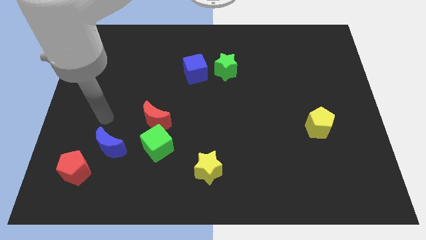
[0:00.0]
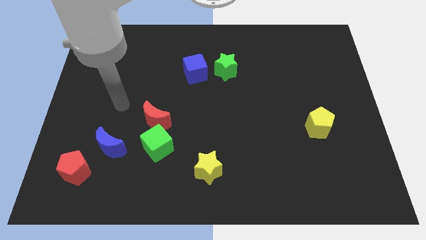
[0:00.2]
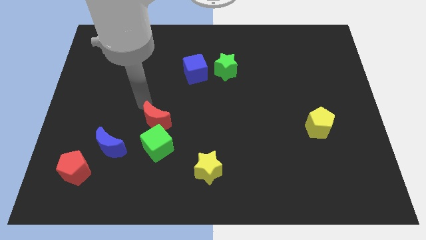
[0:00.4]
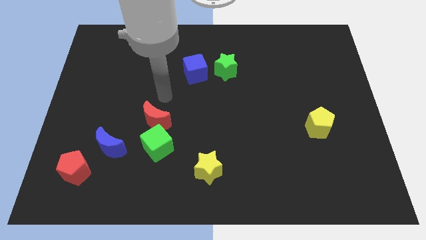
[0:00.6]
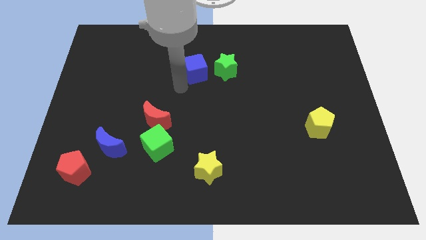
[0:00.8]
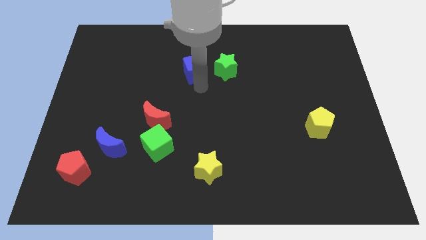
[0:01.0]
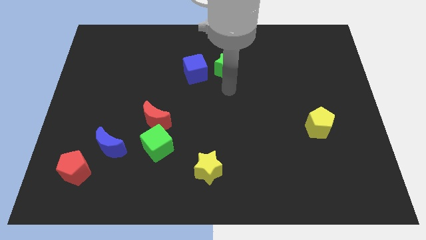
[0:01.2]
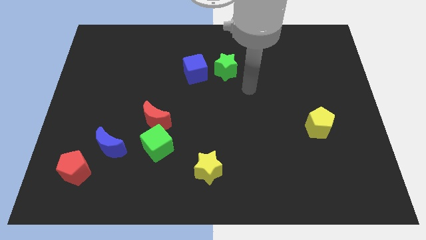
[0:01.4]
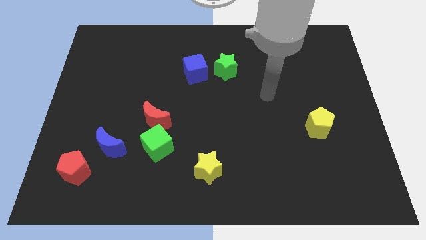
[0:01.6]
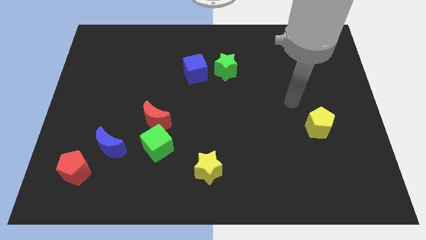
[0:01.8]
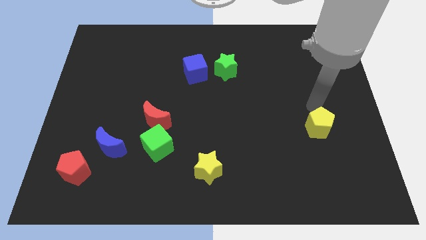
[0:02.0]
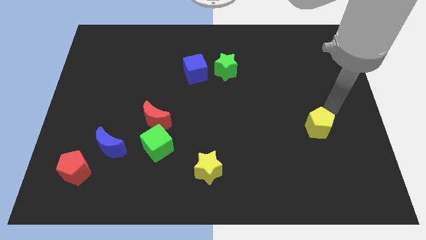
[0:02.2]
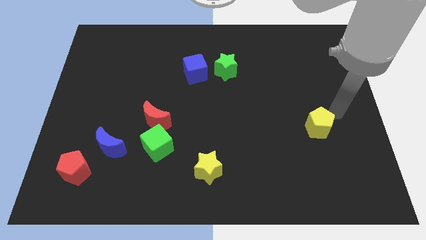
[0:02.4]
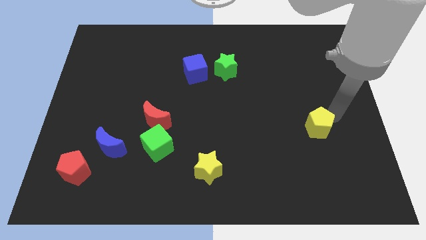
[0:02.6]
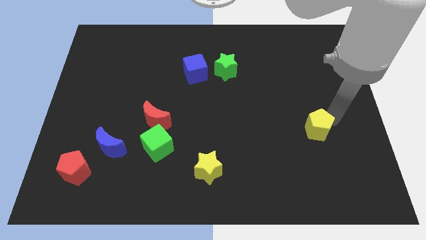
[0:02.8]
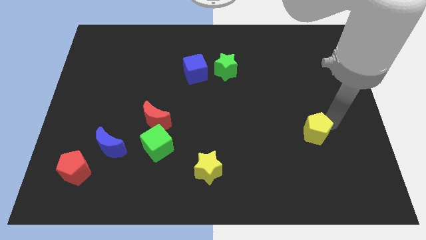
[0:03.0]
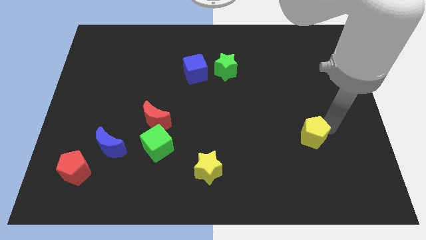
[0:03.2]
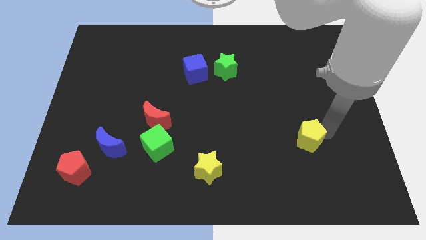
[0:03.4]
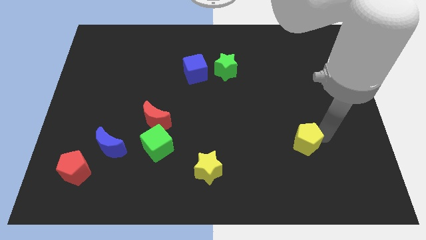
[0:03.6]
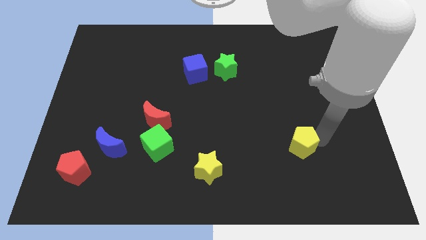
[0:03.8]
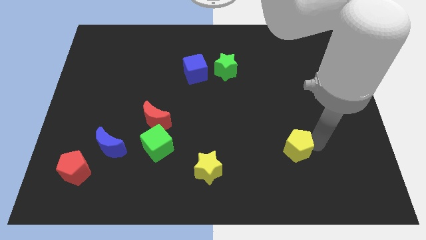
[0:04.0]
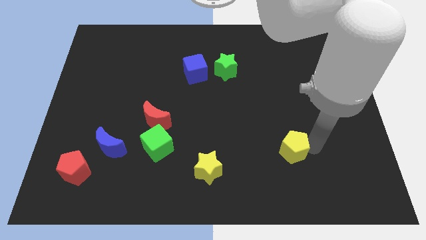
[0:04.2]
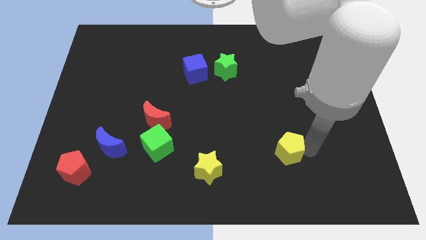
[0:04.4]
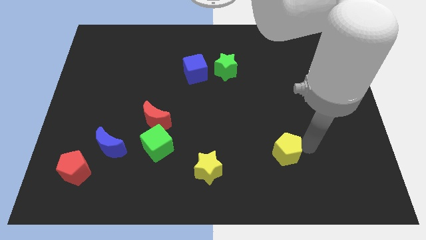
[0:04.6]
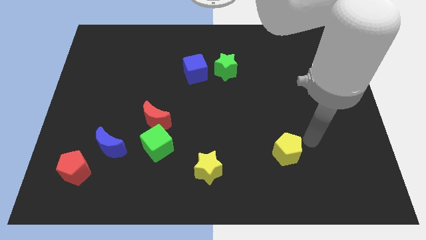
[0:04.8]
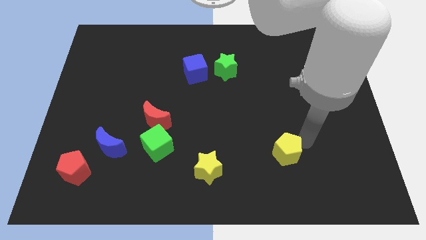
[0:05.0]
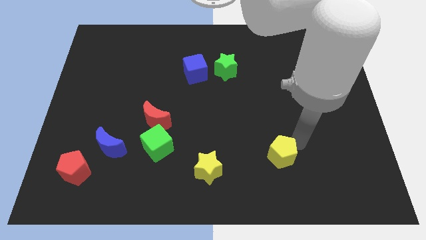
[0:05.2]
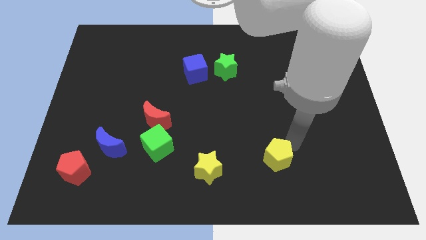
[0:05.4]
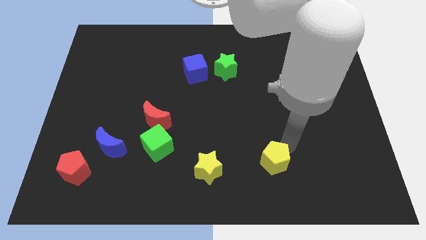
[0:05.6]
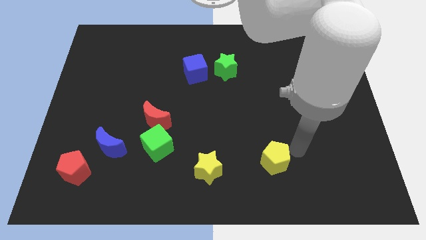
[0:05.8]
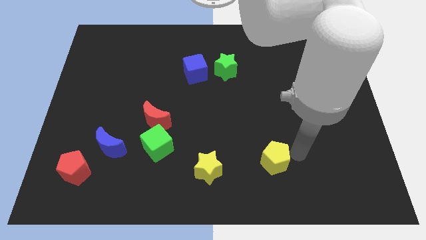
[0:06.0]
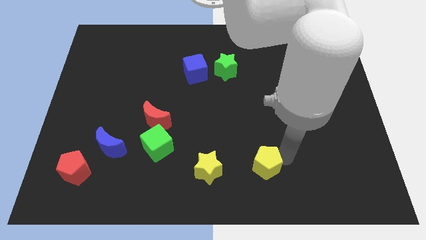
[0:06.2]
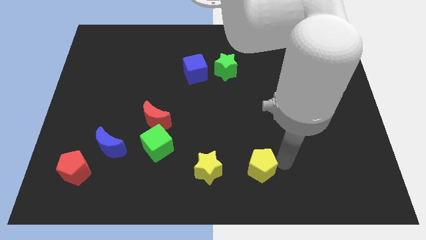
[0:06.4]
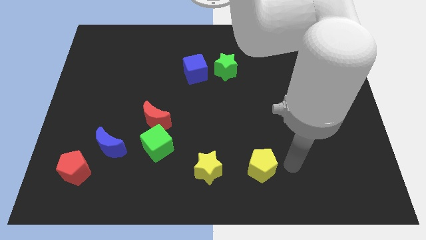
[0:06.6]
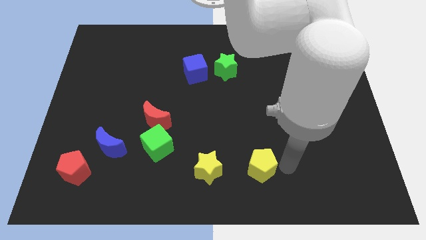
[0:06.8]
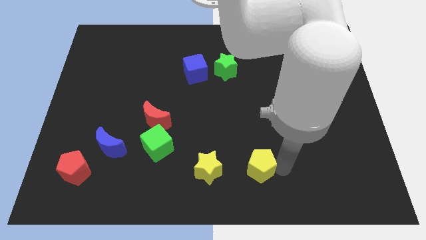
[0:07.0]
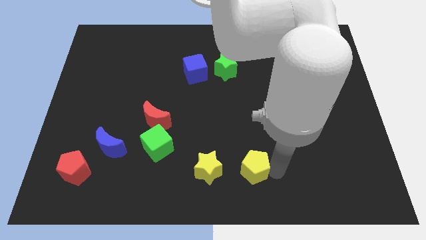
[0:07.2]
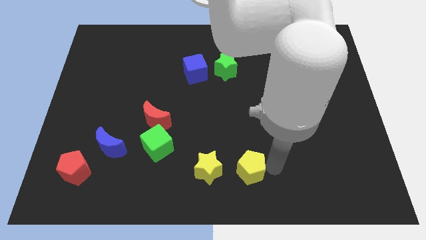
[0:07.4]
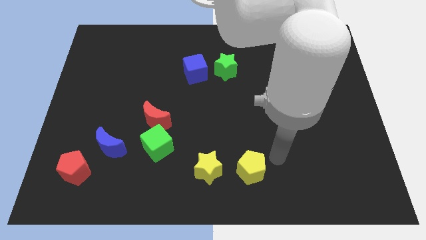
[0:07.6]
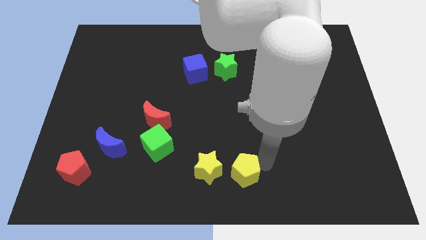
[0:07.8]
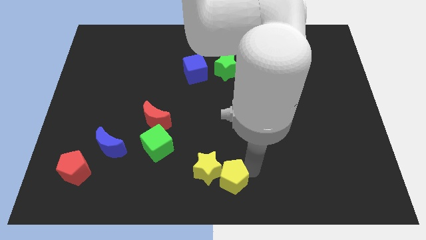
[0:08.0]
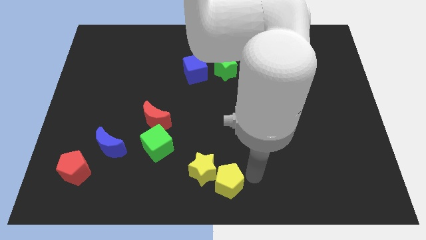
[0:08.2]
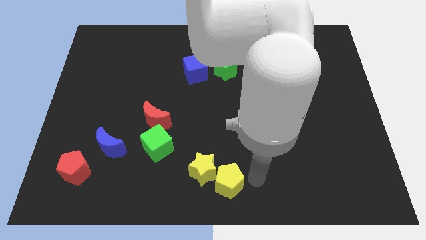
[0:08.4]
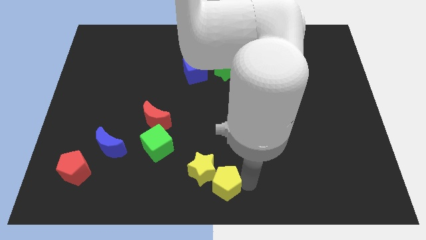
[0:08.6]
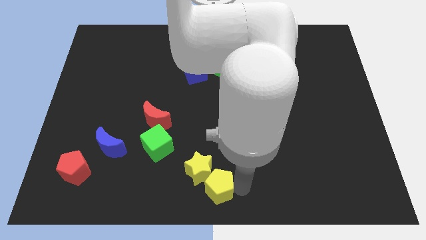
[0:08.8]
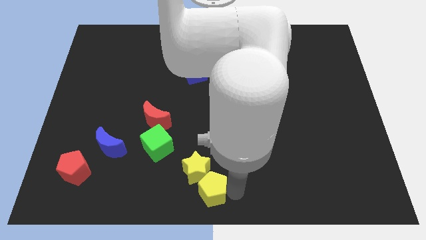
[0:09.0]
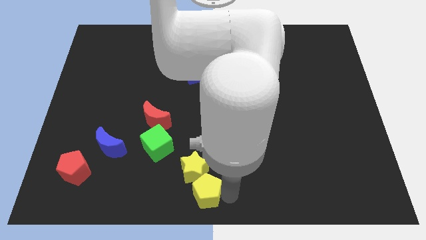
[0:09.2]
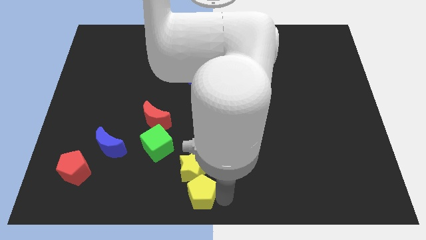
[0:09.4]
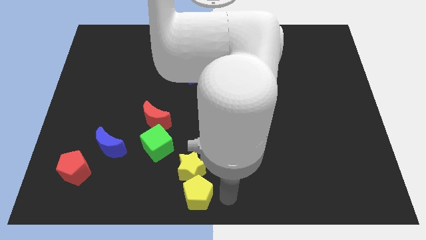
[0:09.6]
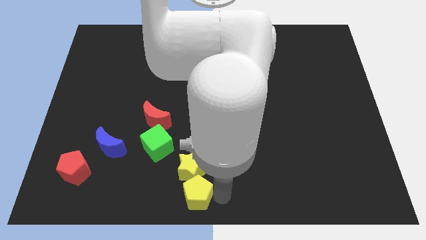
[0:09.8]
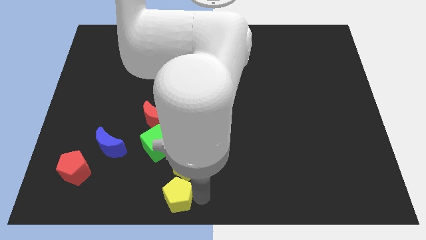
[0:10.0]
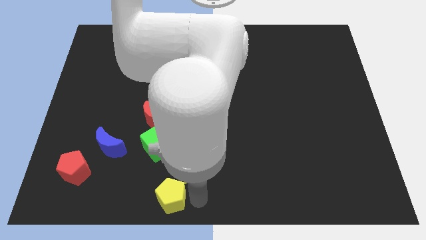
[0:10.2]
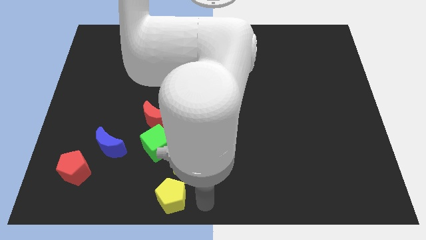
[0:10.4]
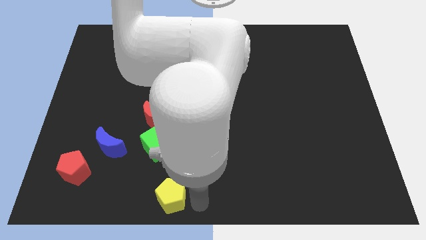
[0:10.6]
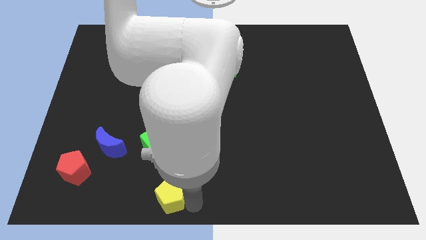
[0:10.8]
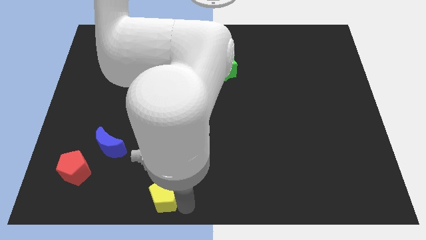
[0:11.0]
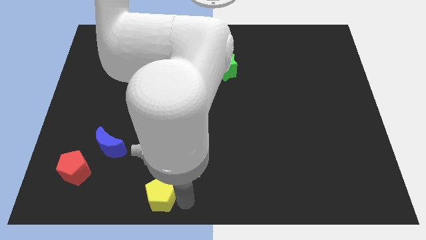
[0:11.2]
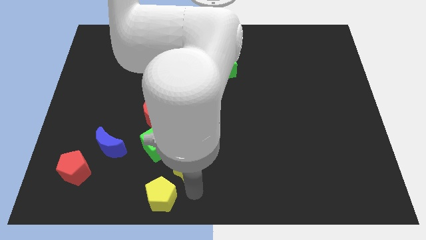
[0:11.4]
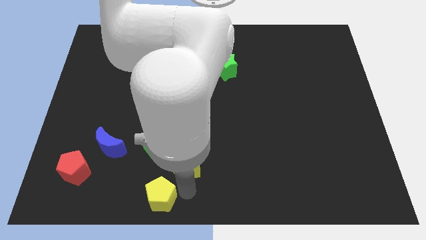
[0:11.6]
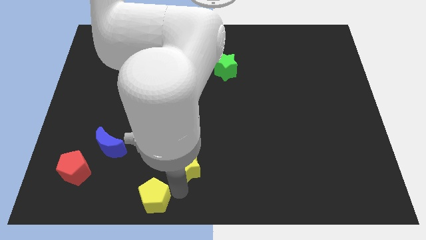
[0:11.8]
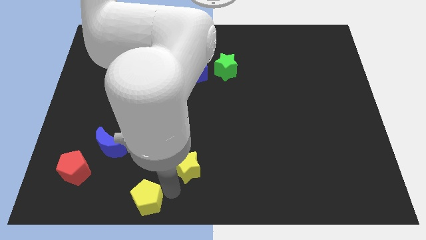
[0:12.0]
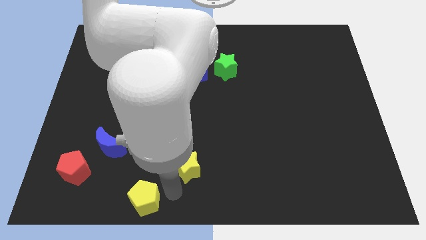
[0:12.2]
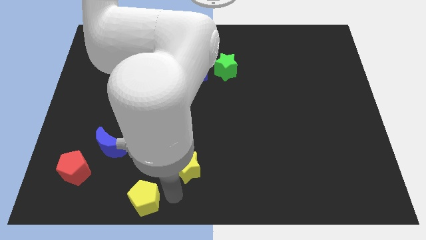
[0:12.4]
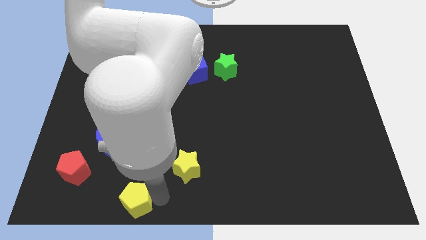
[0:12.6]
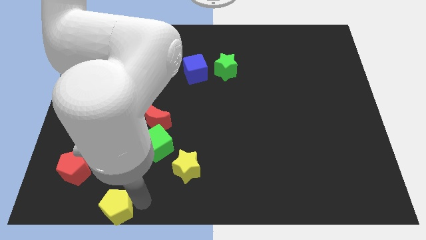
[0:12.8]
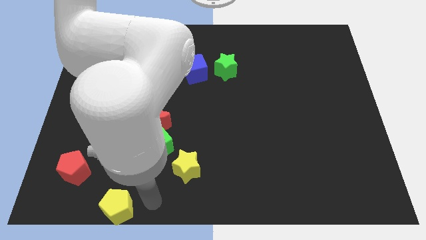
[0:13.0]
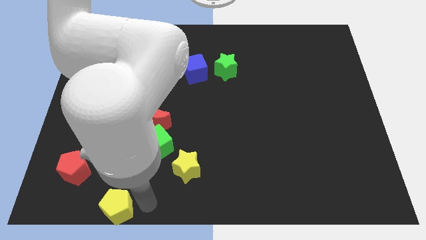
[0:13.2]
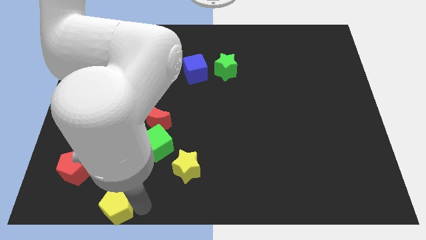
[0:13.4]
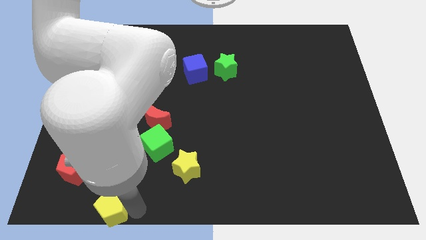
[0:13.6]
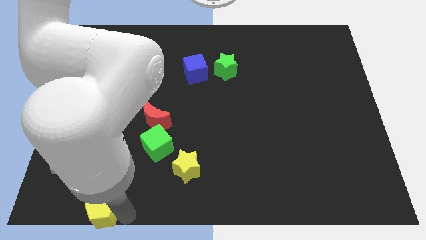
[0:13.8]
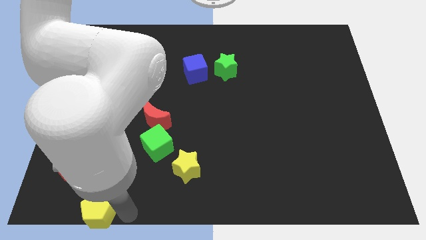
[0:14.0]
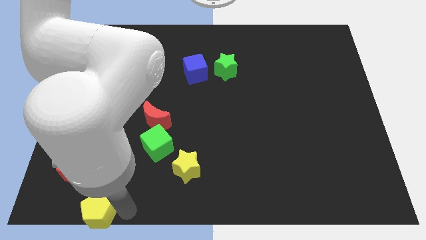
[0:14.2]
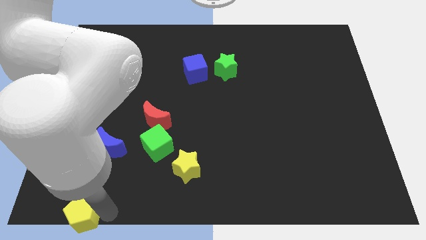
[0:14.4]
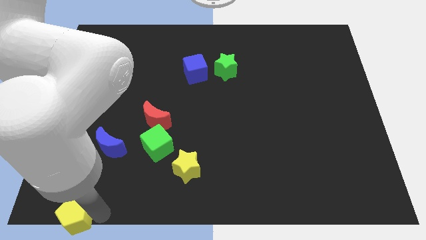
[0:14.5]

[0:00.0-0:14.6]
slide the yellow pentagon to the lower left corner
